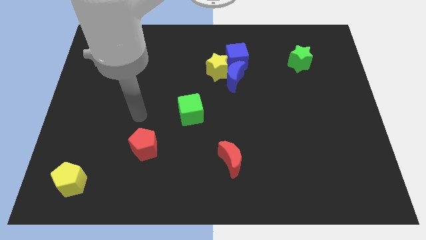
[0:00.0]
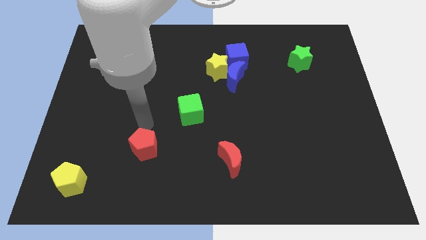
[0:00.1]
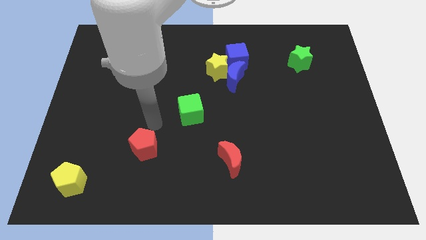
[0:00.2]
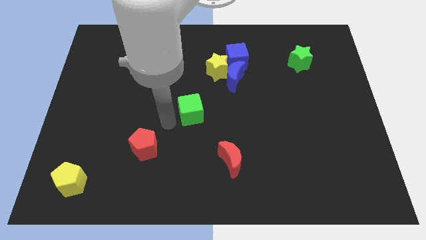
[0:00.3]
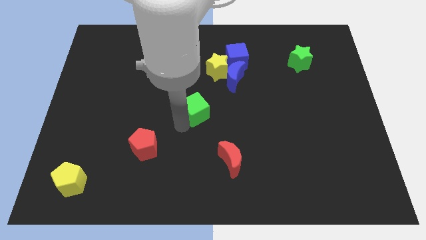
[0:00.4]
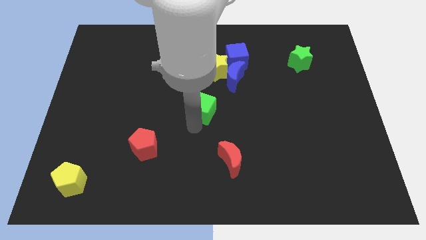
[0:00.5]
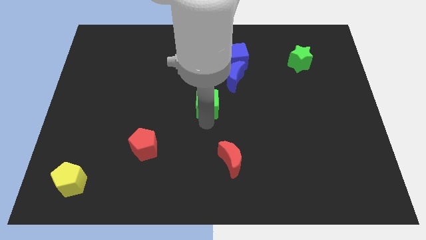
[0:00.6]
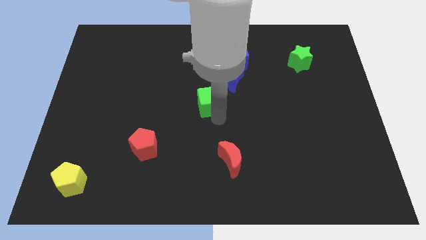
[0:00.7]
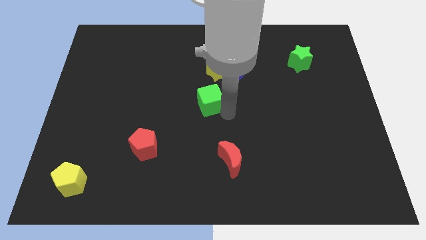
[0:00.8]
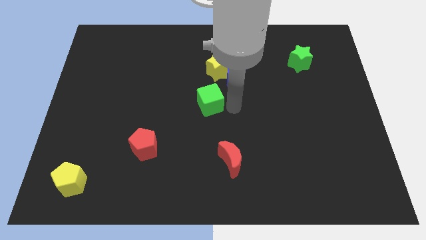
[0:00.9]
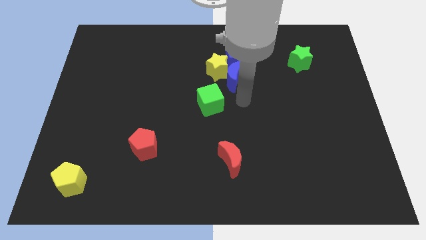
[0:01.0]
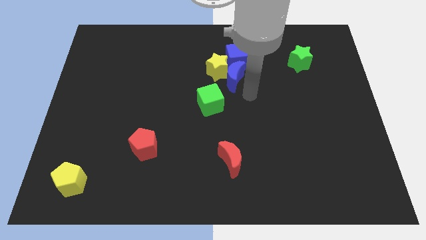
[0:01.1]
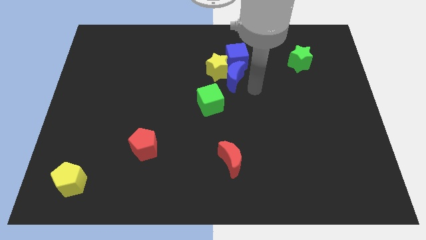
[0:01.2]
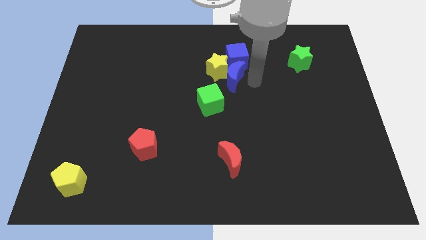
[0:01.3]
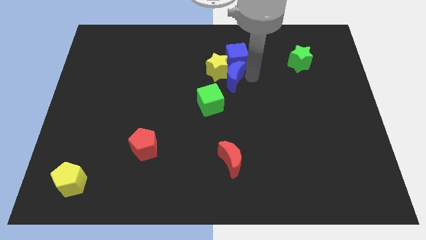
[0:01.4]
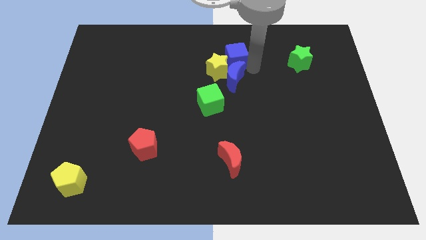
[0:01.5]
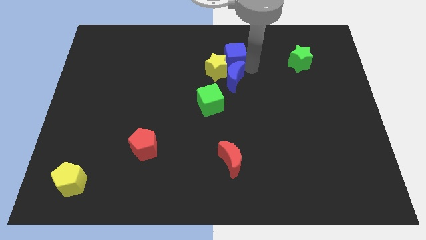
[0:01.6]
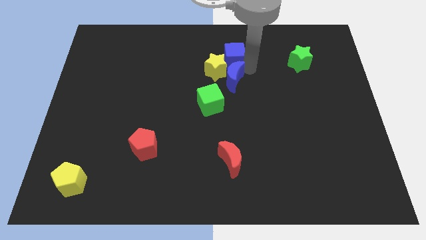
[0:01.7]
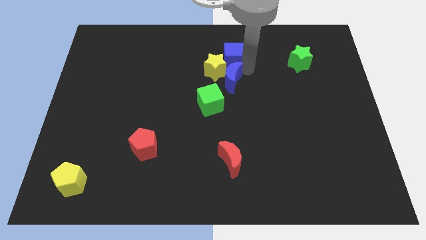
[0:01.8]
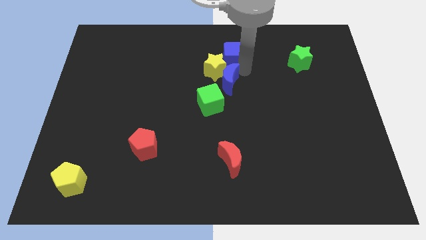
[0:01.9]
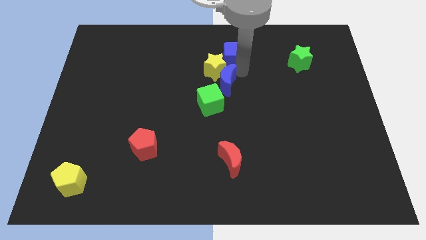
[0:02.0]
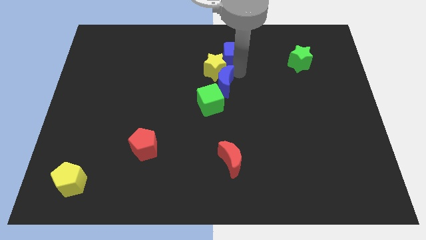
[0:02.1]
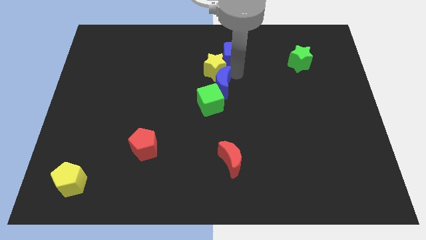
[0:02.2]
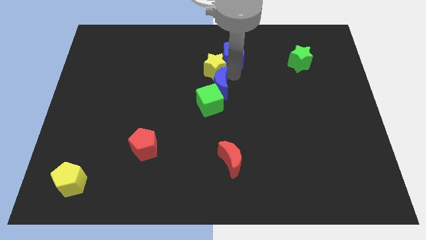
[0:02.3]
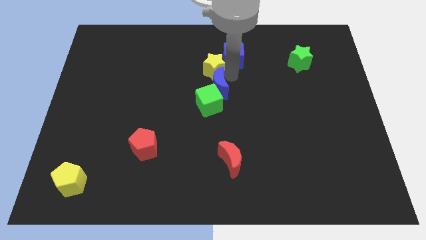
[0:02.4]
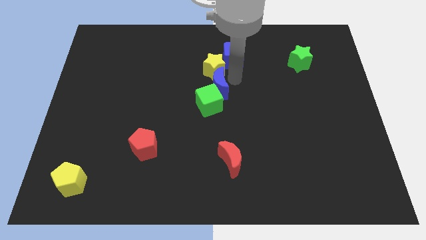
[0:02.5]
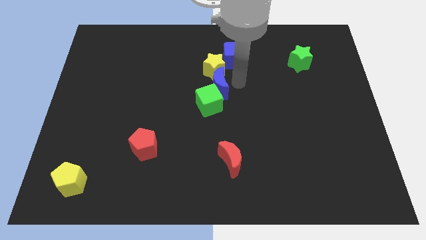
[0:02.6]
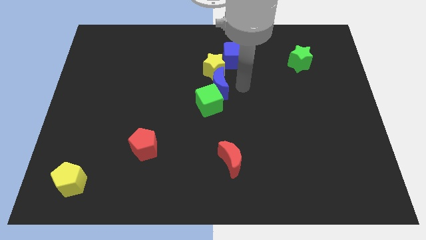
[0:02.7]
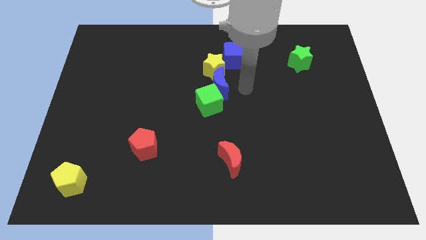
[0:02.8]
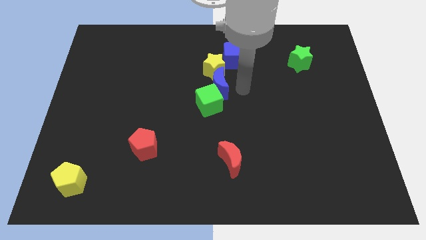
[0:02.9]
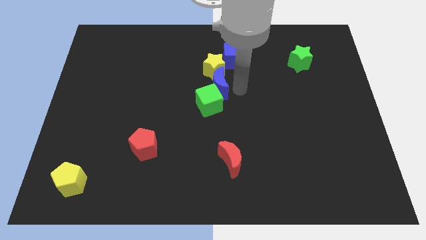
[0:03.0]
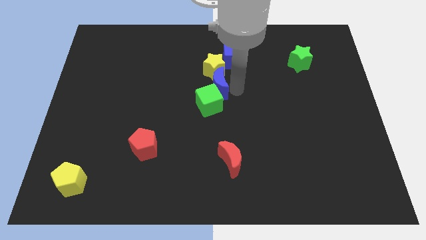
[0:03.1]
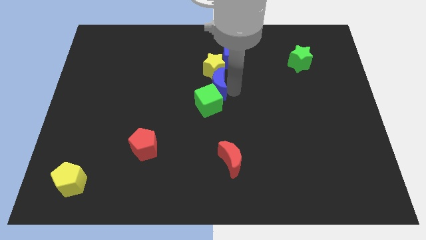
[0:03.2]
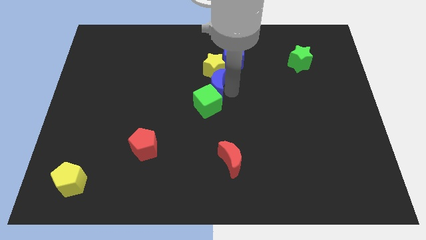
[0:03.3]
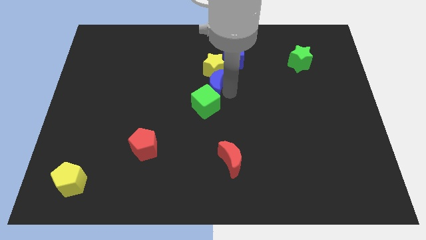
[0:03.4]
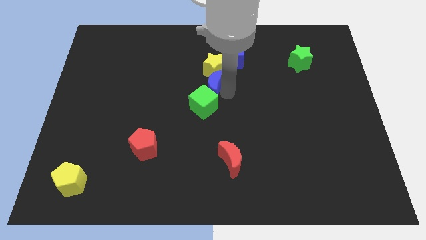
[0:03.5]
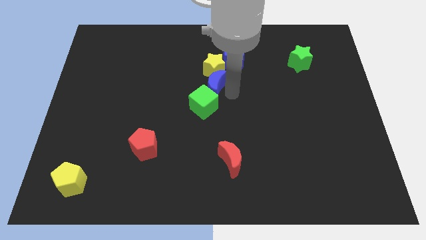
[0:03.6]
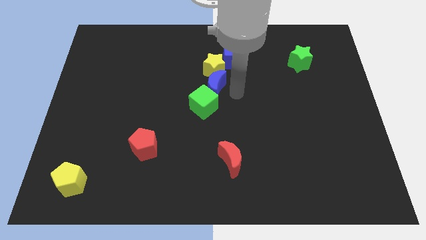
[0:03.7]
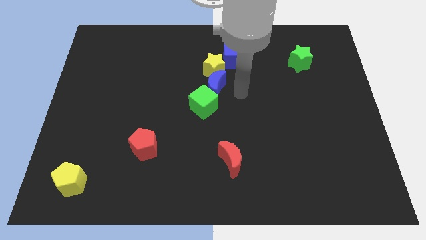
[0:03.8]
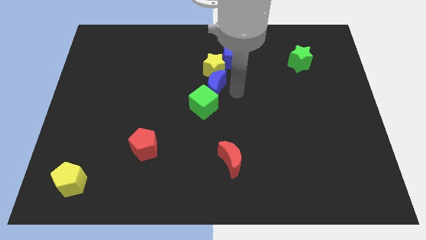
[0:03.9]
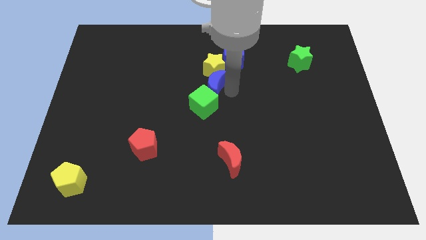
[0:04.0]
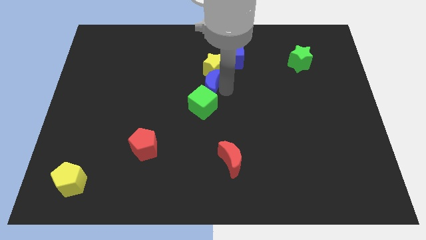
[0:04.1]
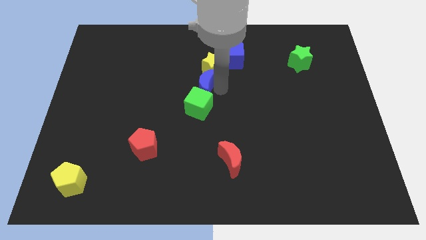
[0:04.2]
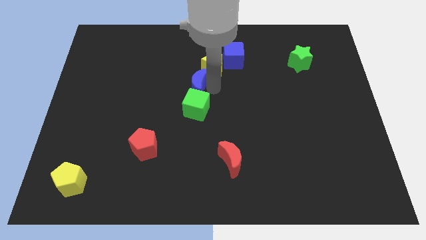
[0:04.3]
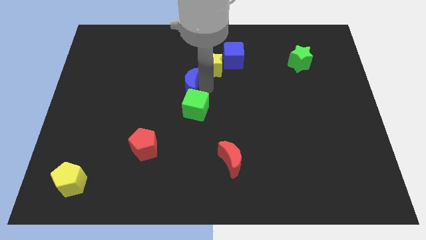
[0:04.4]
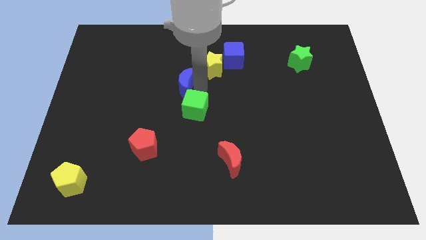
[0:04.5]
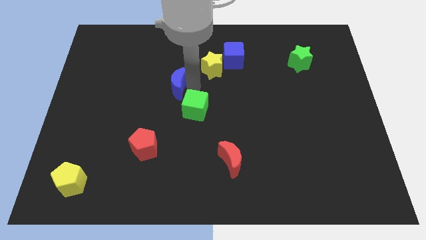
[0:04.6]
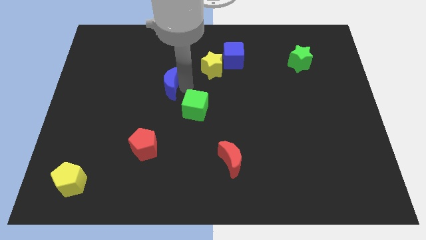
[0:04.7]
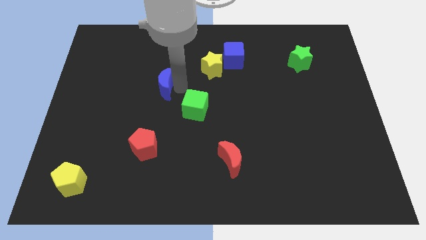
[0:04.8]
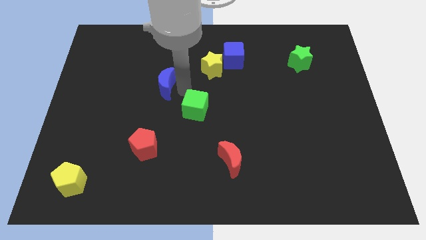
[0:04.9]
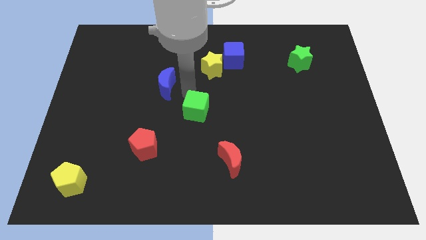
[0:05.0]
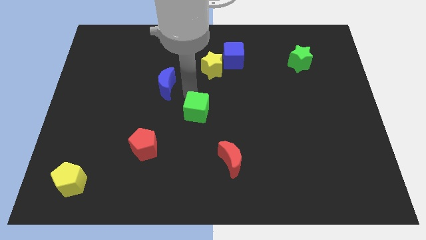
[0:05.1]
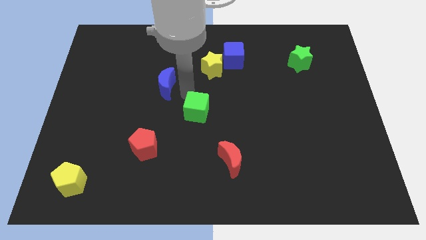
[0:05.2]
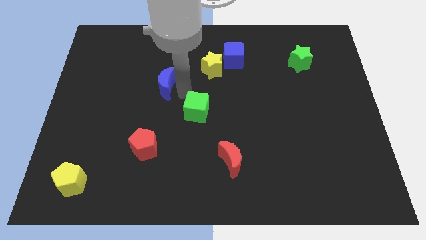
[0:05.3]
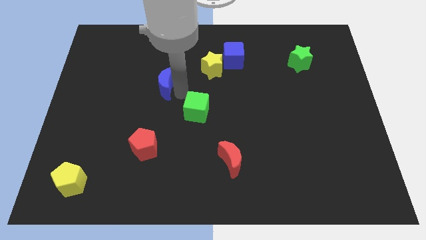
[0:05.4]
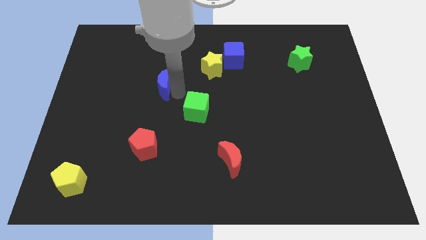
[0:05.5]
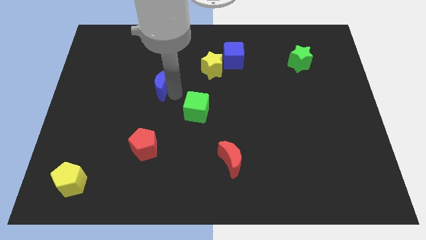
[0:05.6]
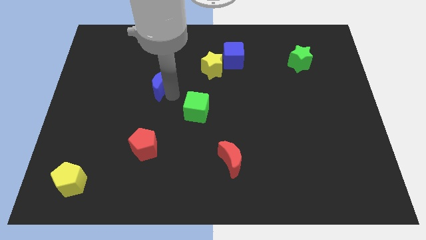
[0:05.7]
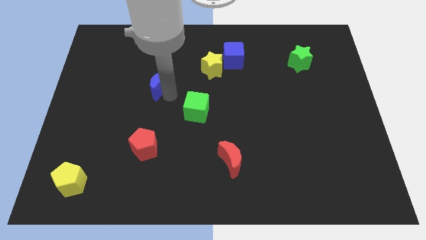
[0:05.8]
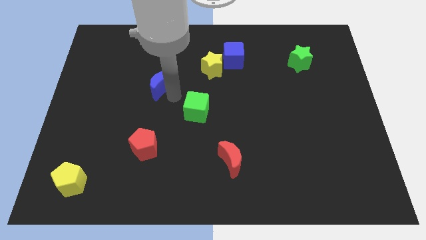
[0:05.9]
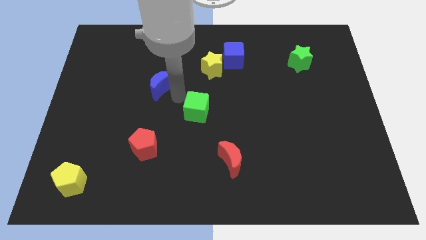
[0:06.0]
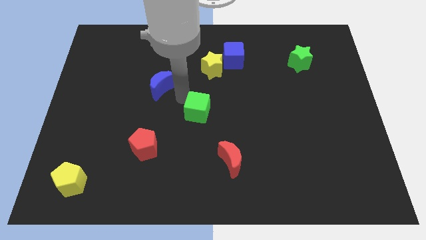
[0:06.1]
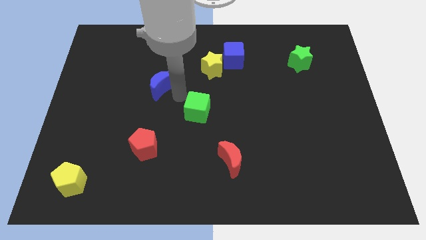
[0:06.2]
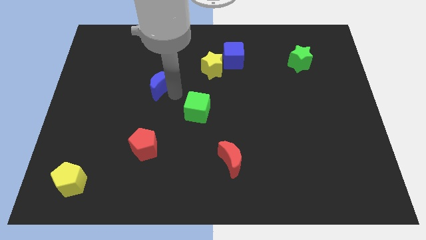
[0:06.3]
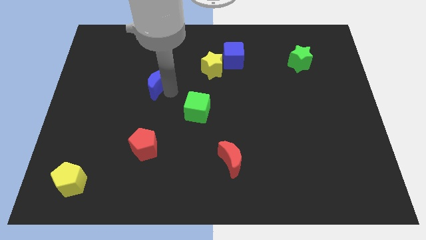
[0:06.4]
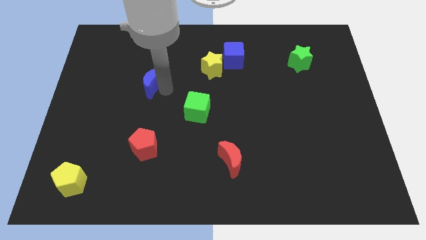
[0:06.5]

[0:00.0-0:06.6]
push the blue moon to the left

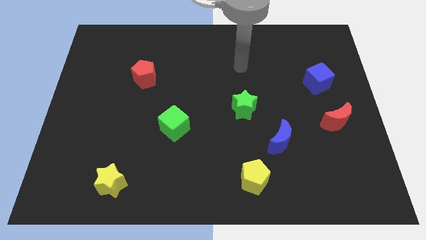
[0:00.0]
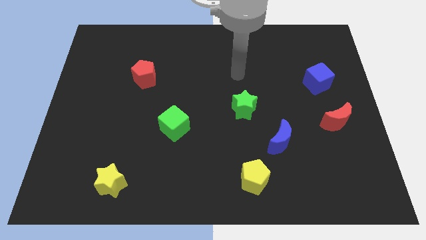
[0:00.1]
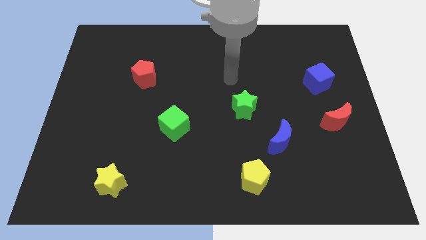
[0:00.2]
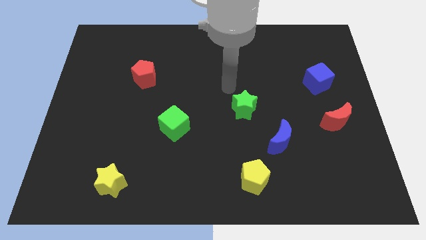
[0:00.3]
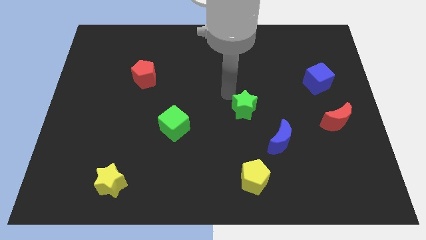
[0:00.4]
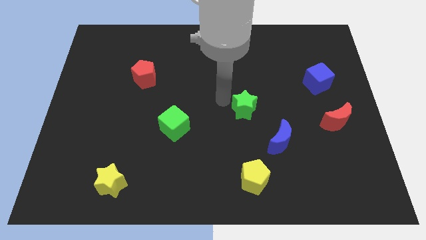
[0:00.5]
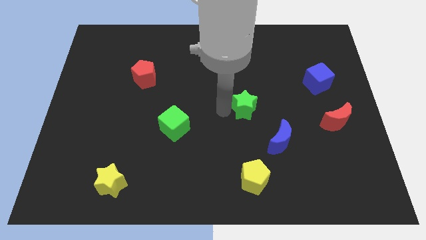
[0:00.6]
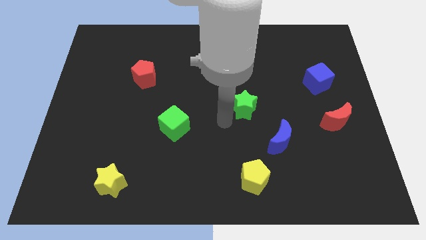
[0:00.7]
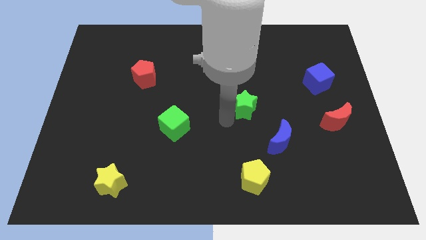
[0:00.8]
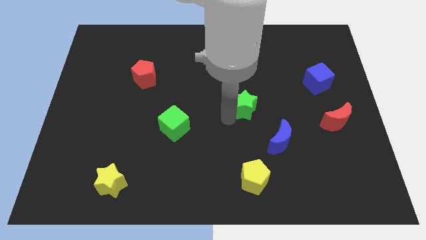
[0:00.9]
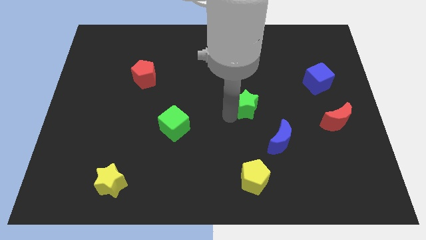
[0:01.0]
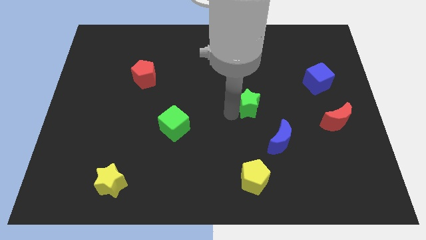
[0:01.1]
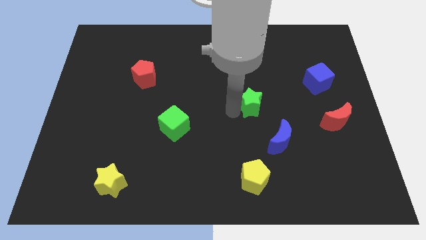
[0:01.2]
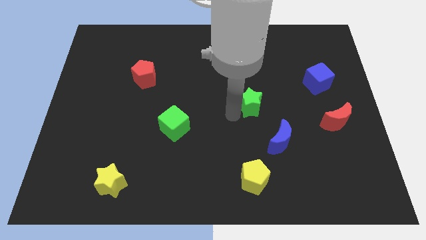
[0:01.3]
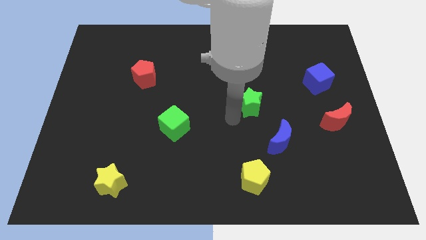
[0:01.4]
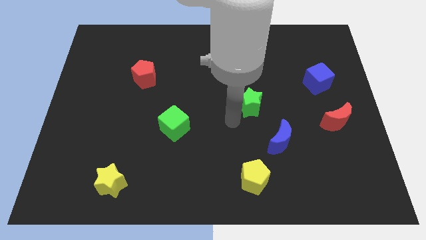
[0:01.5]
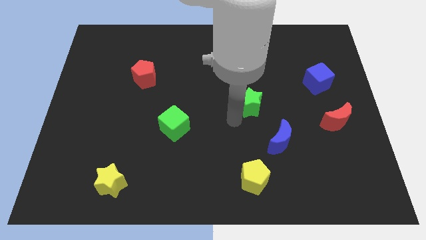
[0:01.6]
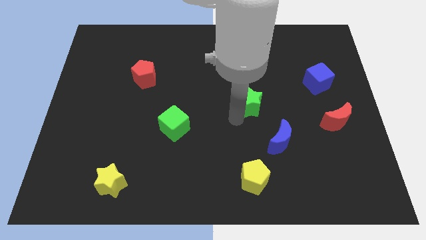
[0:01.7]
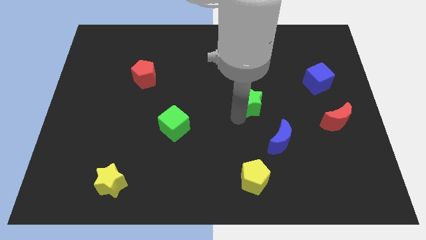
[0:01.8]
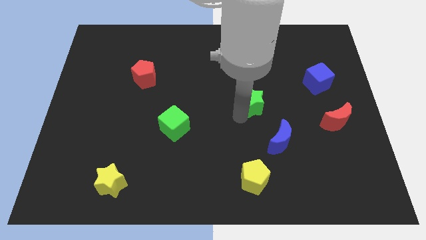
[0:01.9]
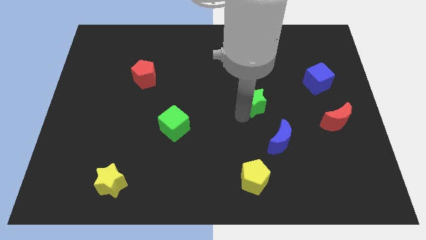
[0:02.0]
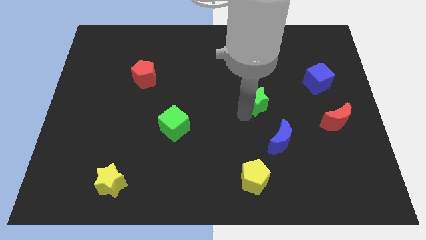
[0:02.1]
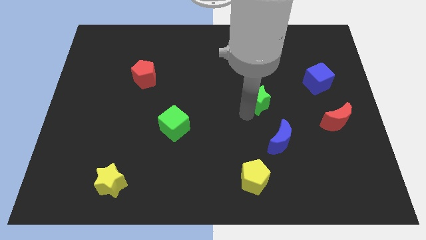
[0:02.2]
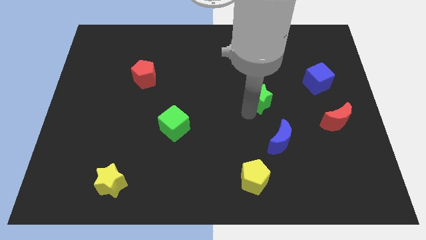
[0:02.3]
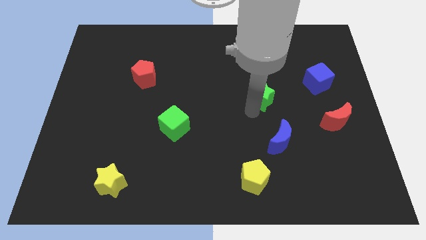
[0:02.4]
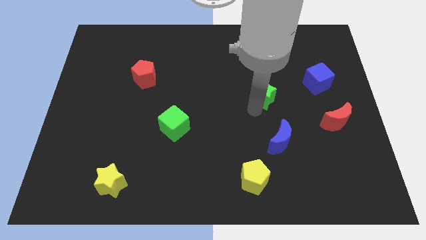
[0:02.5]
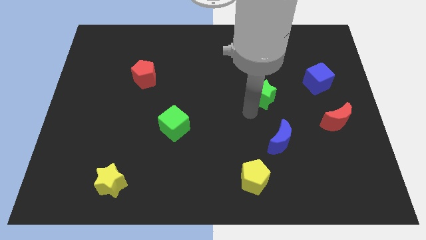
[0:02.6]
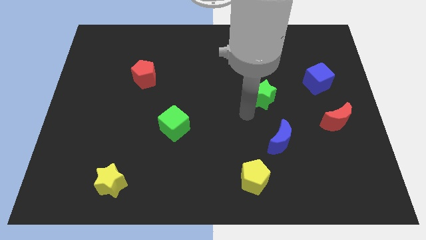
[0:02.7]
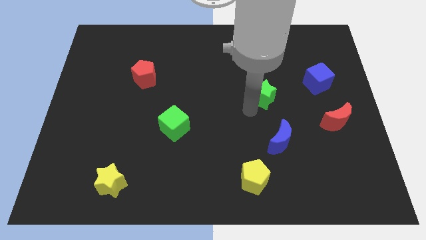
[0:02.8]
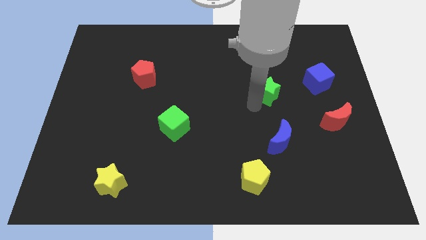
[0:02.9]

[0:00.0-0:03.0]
slightly slide the green star upwards and right
